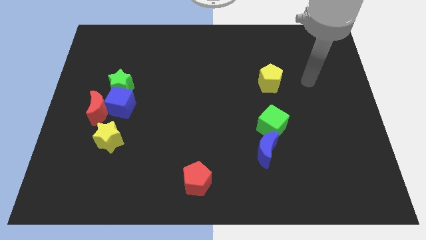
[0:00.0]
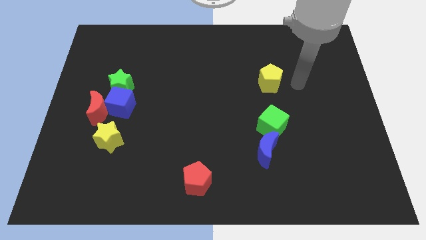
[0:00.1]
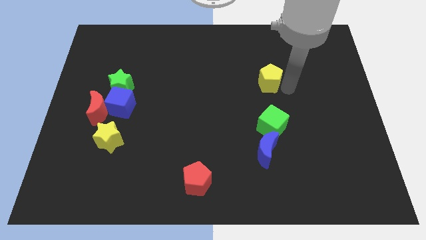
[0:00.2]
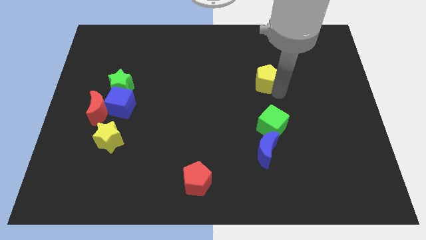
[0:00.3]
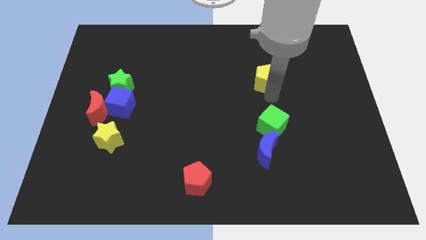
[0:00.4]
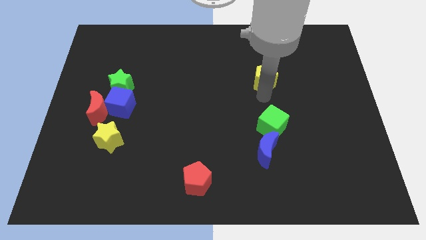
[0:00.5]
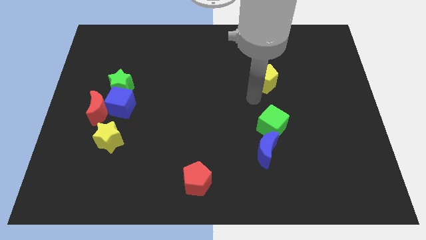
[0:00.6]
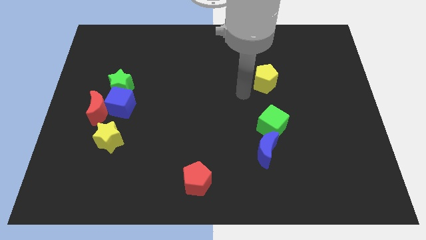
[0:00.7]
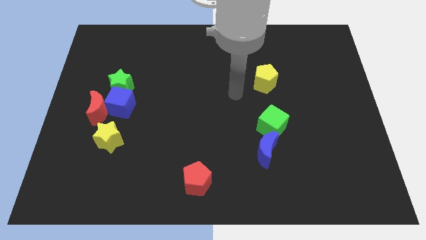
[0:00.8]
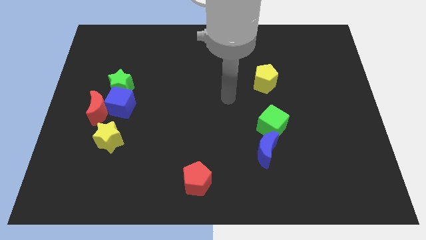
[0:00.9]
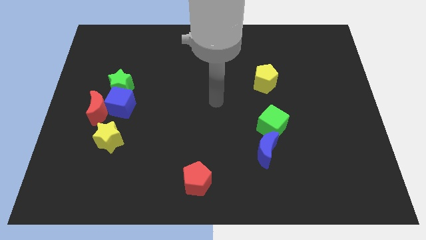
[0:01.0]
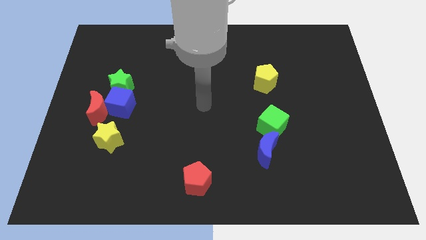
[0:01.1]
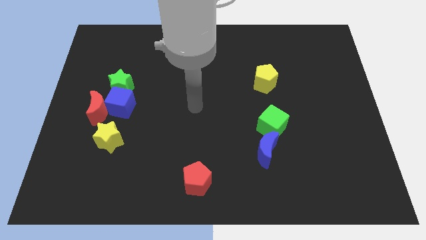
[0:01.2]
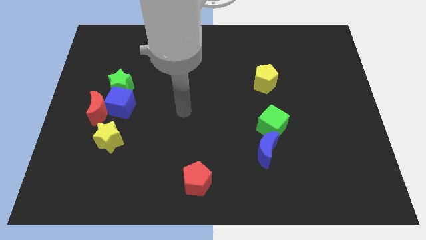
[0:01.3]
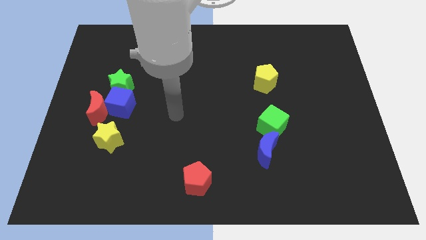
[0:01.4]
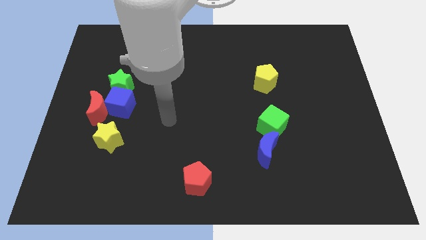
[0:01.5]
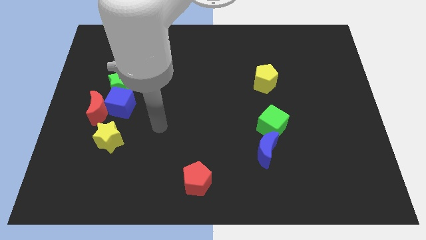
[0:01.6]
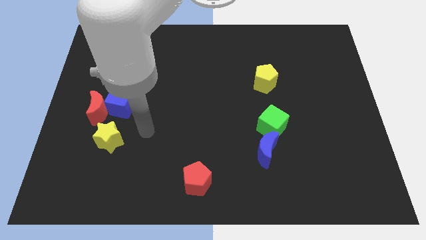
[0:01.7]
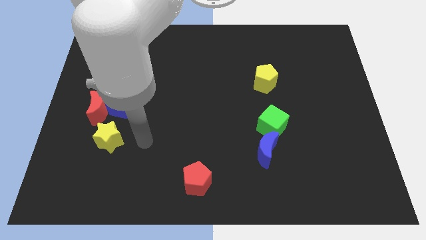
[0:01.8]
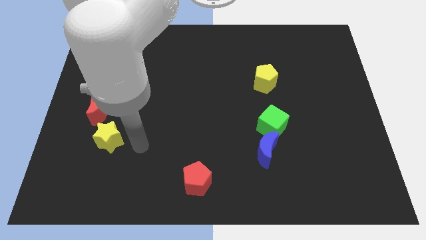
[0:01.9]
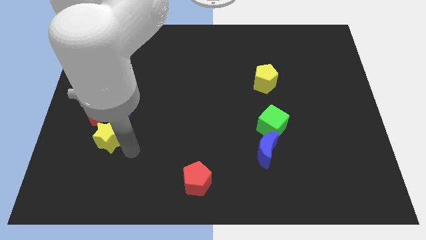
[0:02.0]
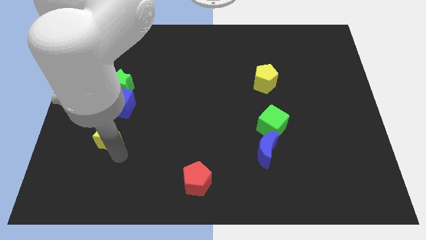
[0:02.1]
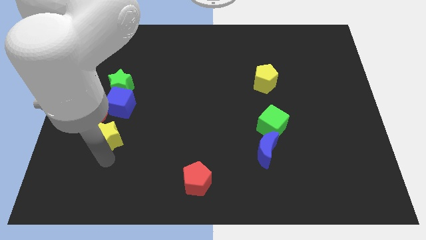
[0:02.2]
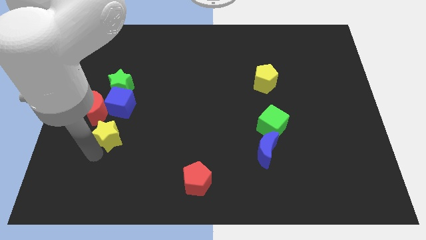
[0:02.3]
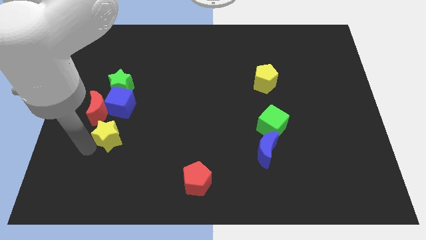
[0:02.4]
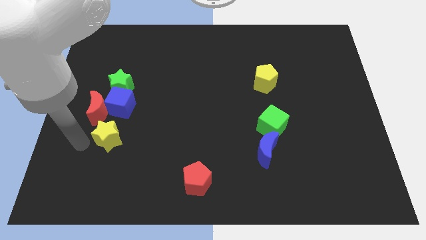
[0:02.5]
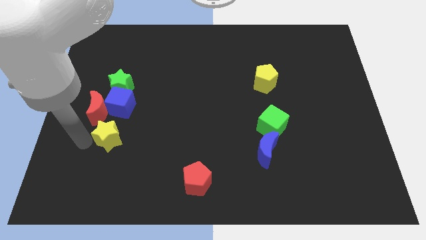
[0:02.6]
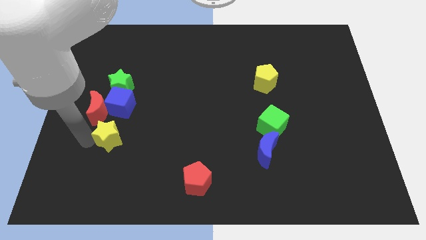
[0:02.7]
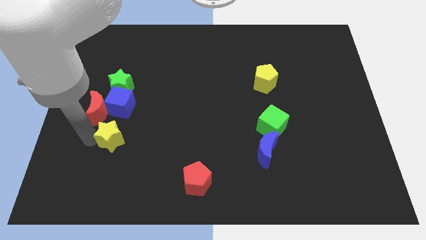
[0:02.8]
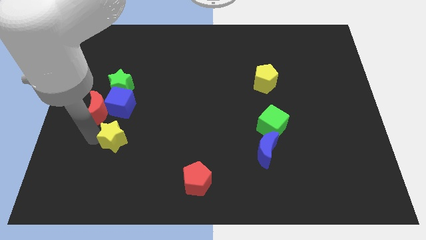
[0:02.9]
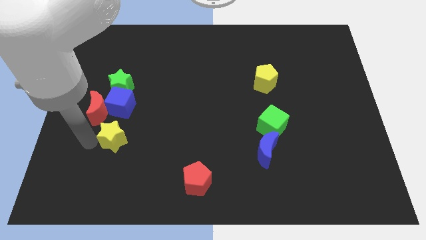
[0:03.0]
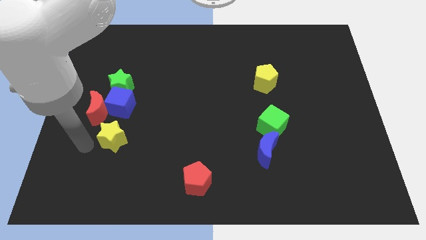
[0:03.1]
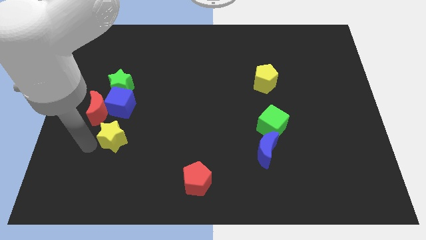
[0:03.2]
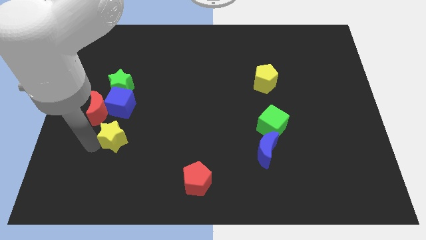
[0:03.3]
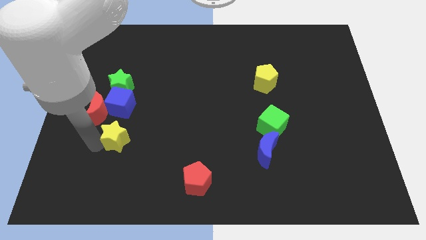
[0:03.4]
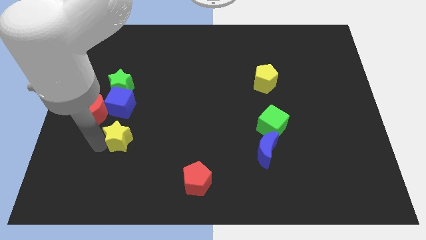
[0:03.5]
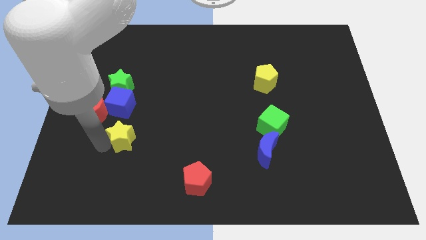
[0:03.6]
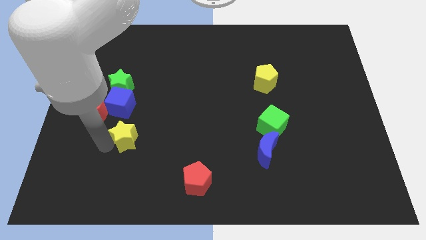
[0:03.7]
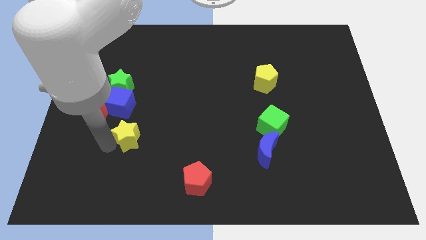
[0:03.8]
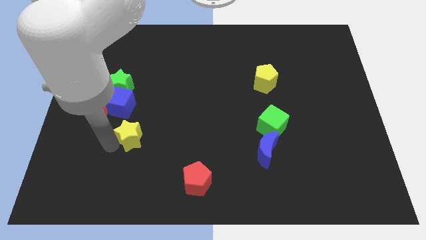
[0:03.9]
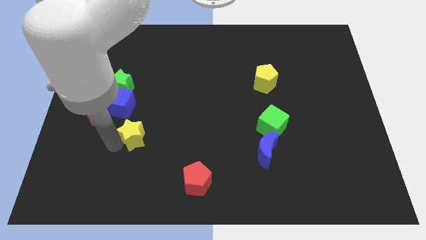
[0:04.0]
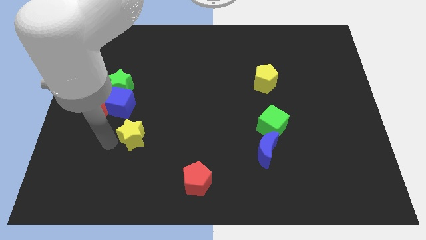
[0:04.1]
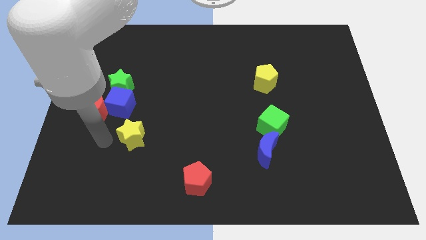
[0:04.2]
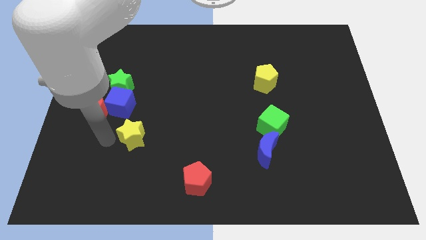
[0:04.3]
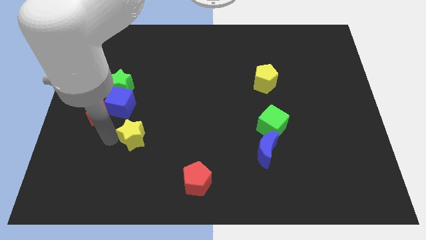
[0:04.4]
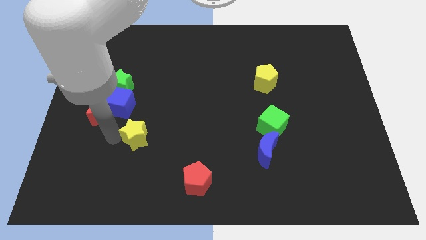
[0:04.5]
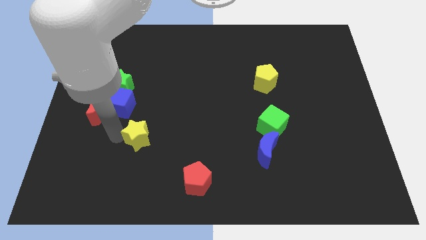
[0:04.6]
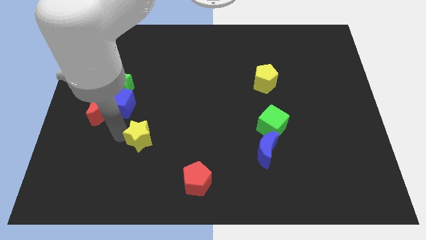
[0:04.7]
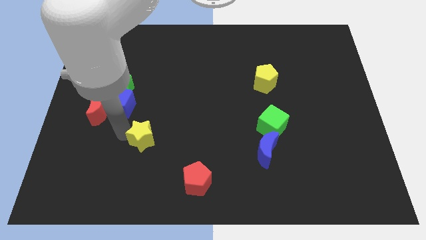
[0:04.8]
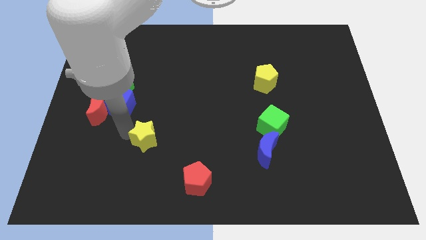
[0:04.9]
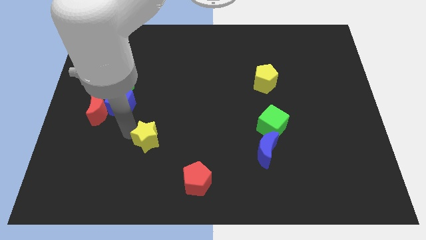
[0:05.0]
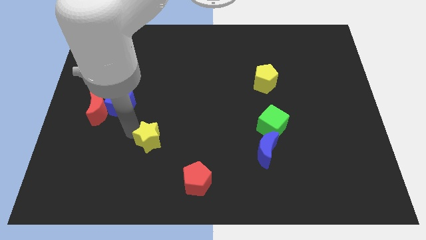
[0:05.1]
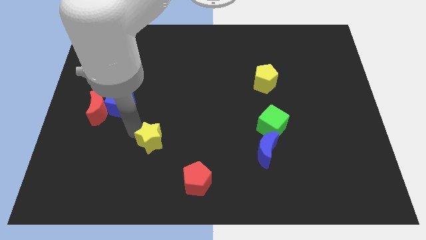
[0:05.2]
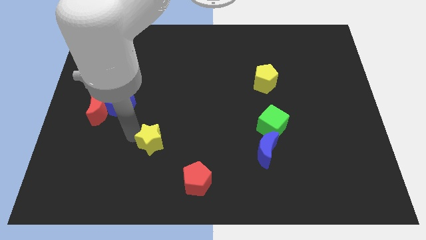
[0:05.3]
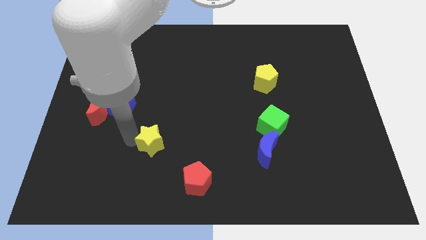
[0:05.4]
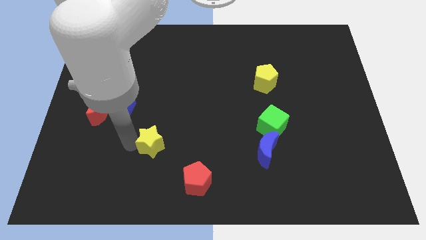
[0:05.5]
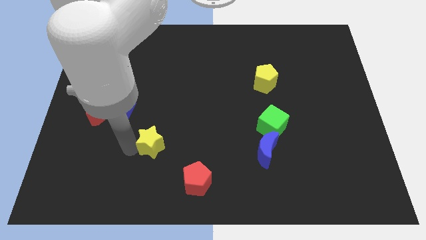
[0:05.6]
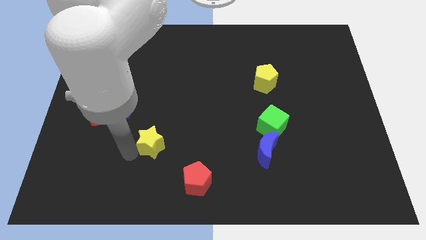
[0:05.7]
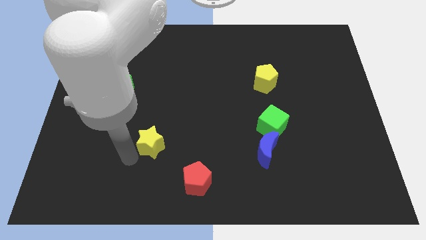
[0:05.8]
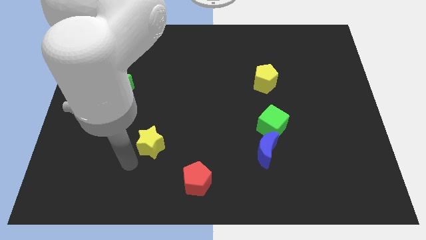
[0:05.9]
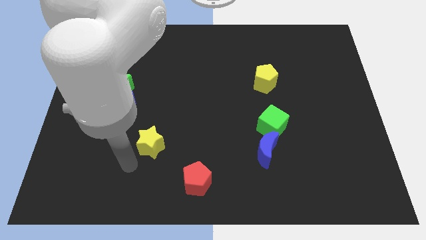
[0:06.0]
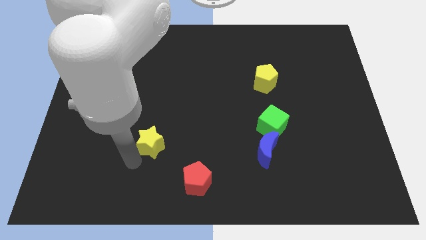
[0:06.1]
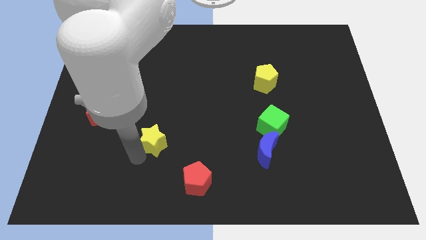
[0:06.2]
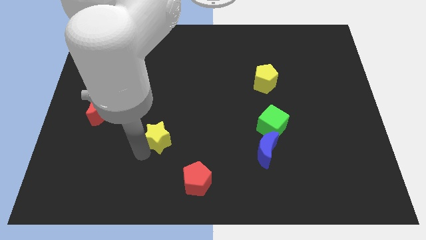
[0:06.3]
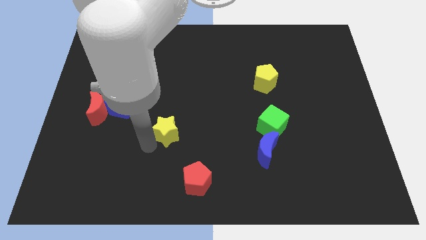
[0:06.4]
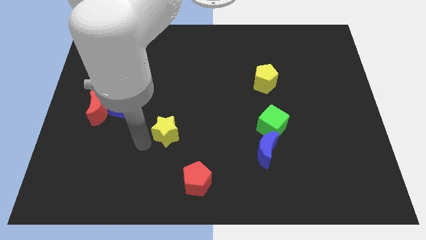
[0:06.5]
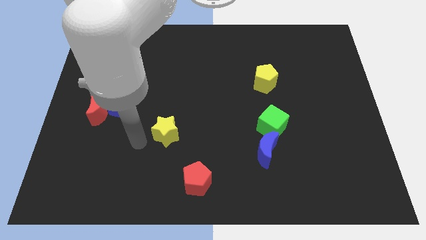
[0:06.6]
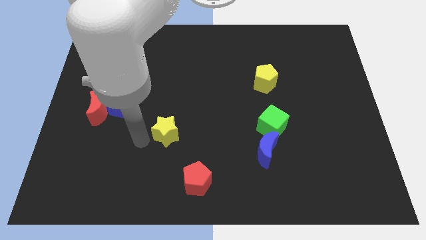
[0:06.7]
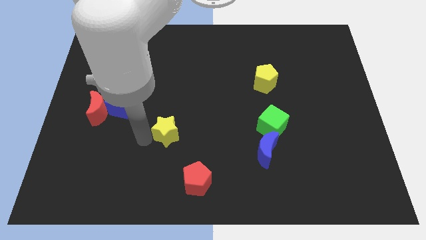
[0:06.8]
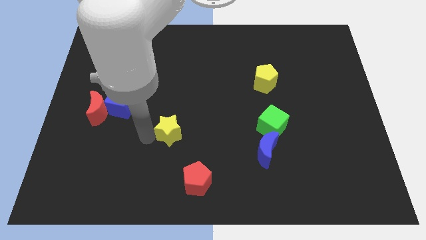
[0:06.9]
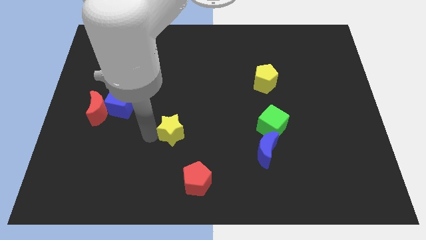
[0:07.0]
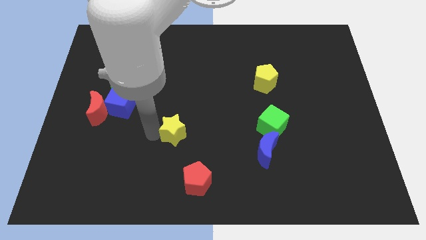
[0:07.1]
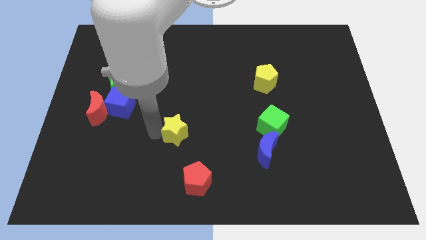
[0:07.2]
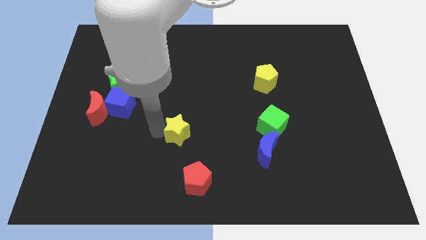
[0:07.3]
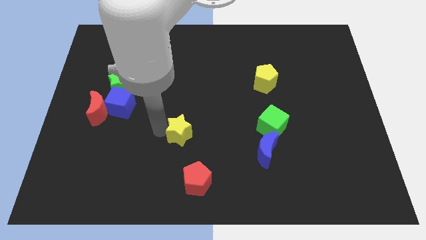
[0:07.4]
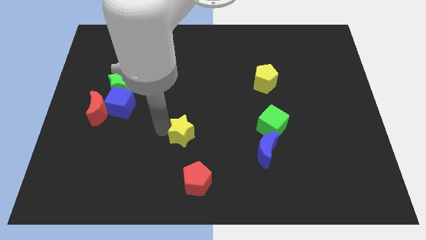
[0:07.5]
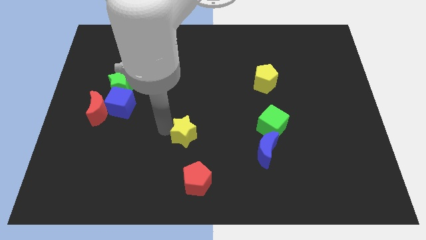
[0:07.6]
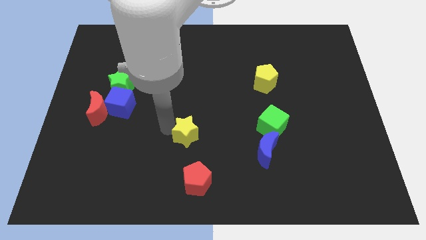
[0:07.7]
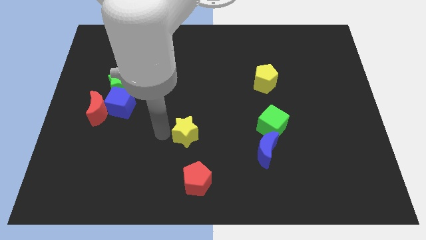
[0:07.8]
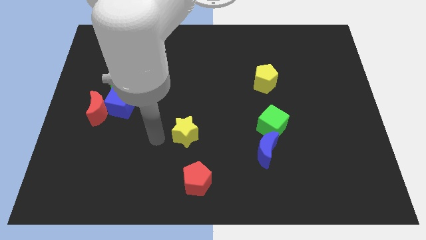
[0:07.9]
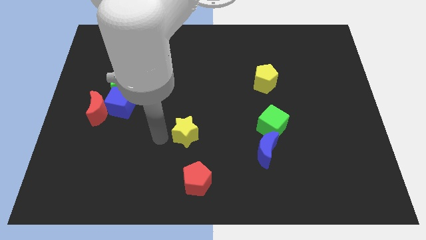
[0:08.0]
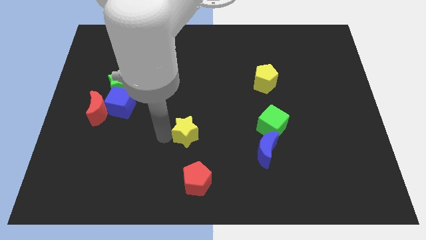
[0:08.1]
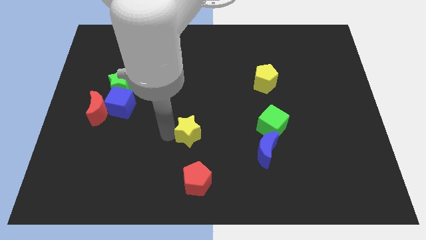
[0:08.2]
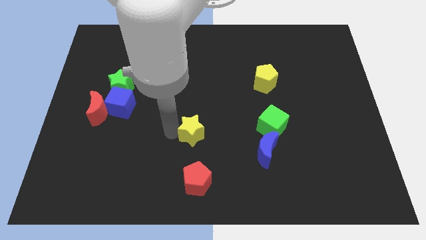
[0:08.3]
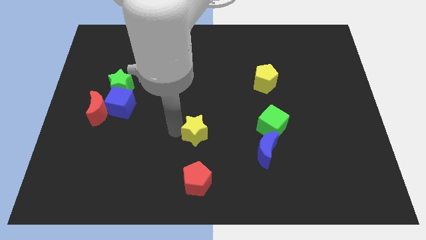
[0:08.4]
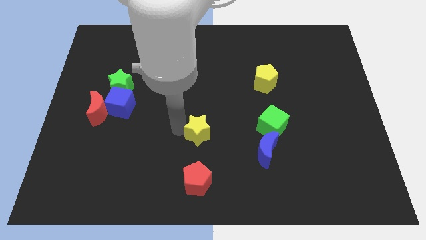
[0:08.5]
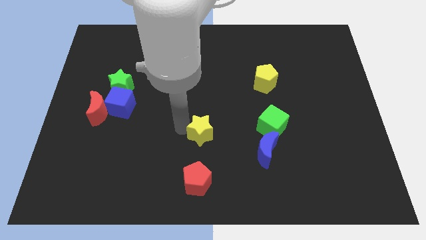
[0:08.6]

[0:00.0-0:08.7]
put the yellow star to the left of the green cube

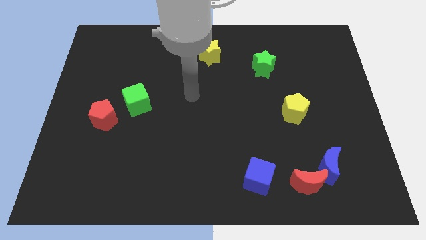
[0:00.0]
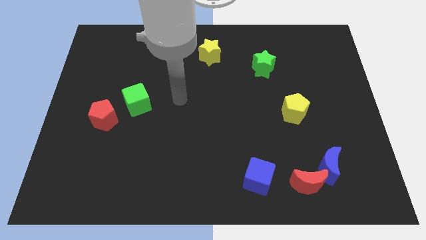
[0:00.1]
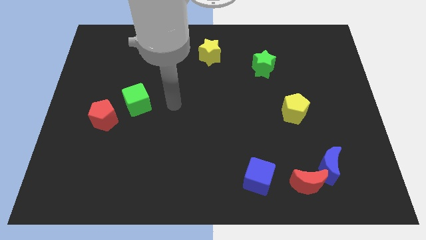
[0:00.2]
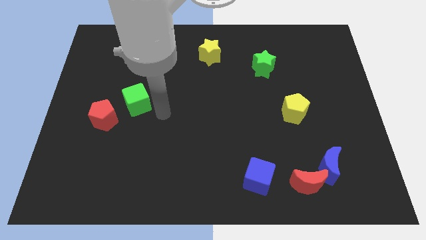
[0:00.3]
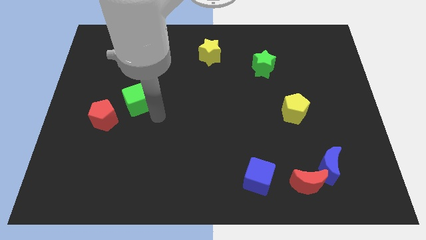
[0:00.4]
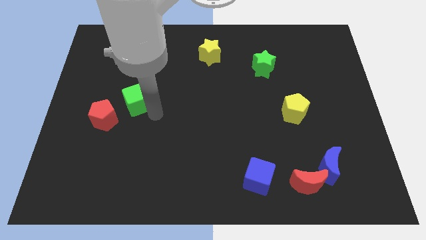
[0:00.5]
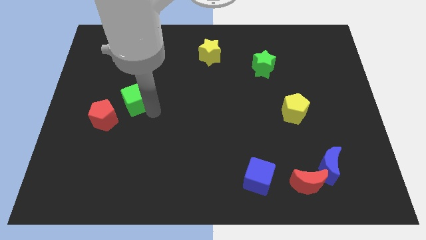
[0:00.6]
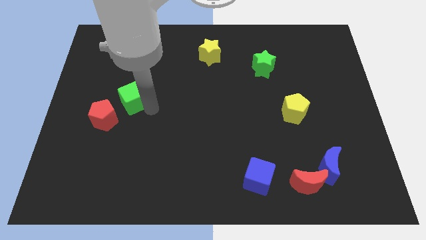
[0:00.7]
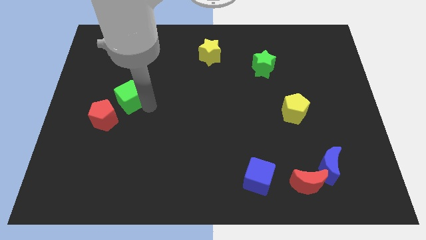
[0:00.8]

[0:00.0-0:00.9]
put the green cube above the red pentagon
